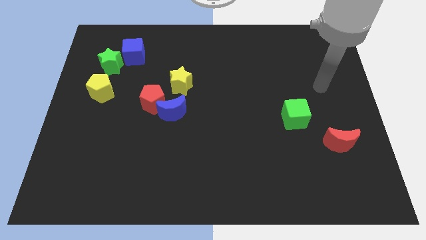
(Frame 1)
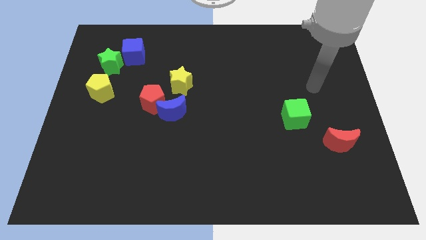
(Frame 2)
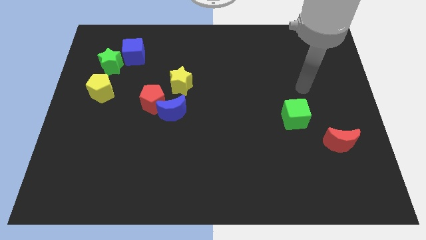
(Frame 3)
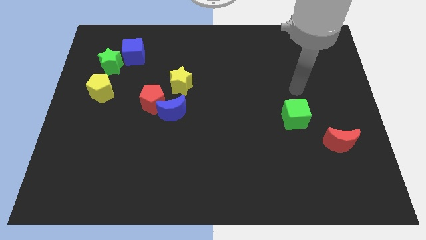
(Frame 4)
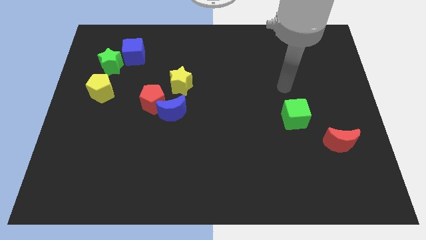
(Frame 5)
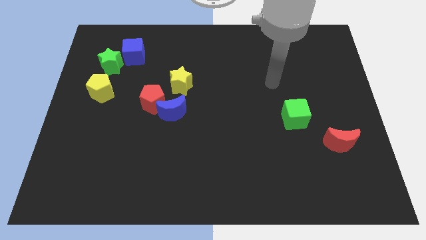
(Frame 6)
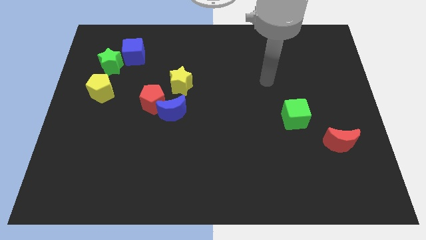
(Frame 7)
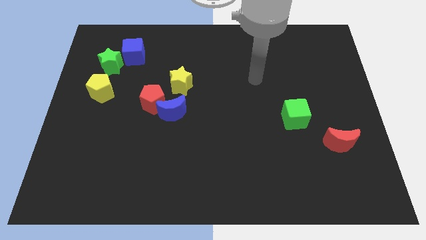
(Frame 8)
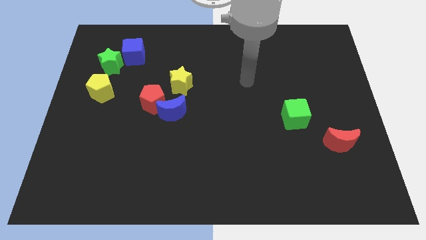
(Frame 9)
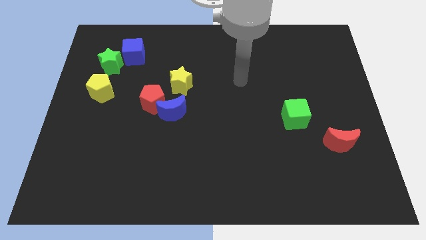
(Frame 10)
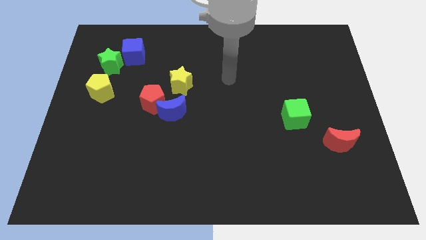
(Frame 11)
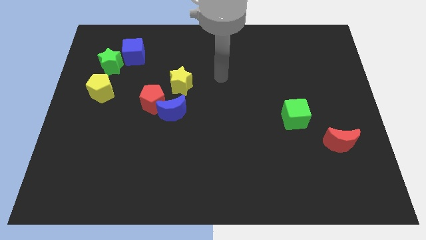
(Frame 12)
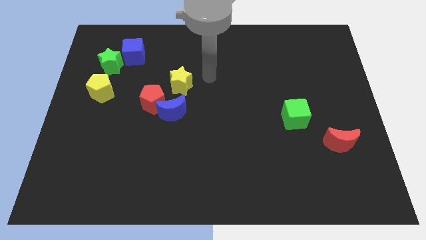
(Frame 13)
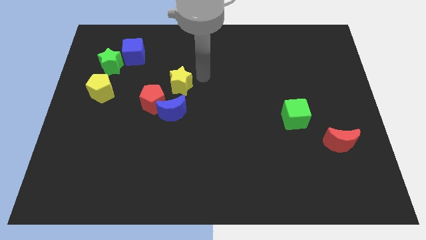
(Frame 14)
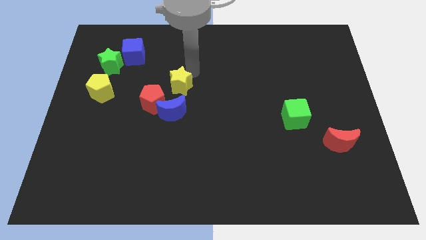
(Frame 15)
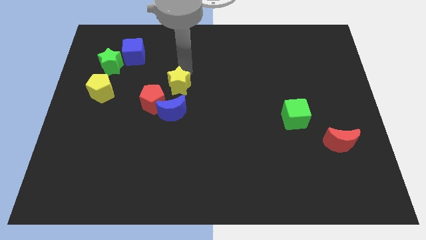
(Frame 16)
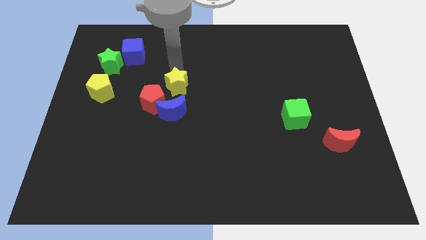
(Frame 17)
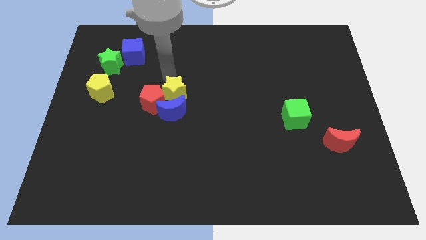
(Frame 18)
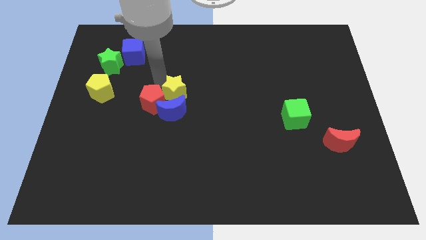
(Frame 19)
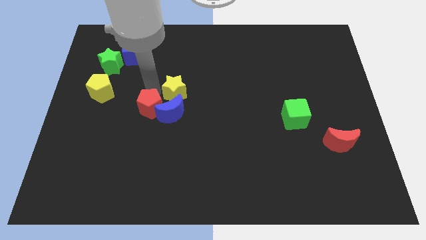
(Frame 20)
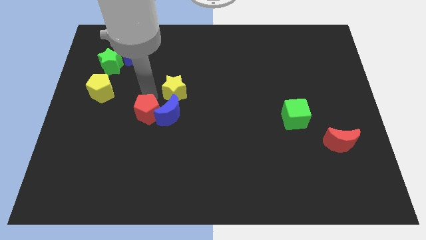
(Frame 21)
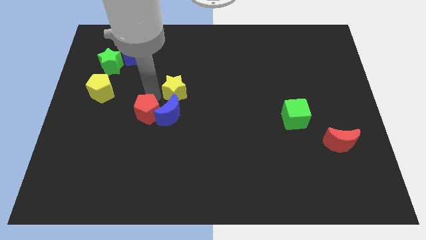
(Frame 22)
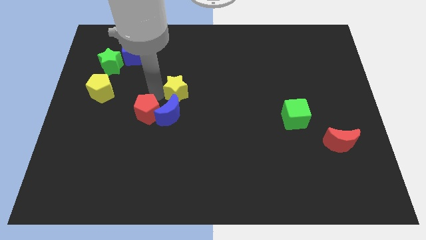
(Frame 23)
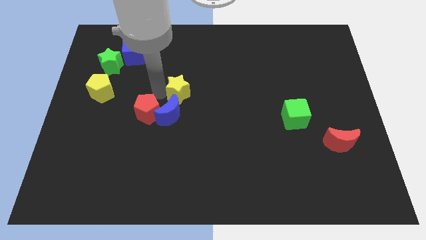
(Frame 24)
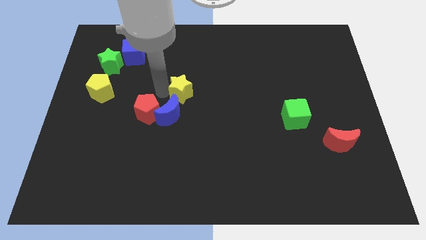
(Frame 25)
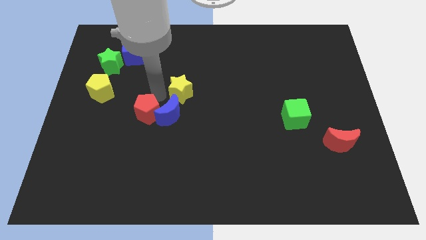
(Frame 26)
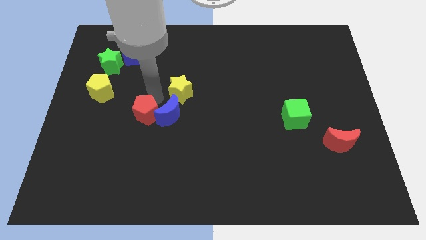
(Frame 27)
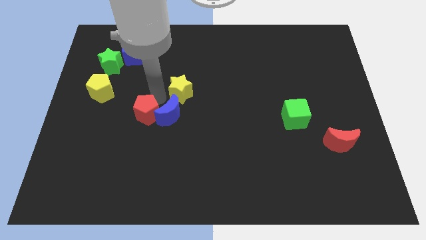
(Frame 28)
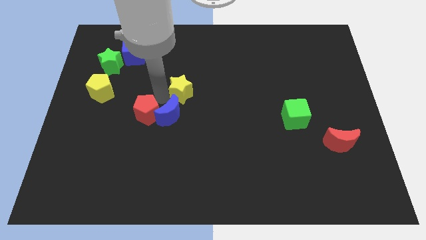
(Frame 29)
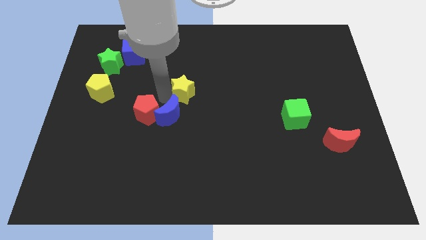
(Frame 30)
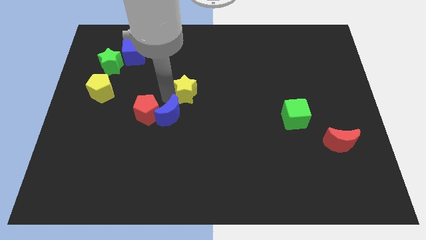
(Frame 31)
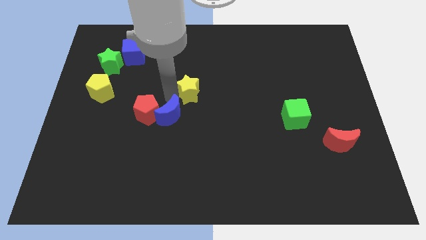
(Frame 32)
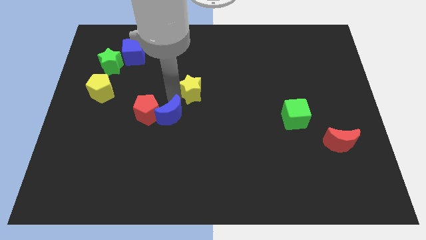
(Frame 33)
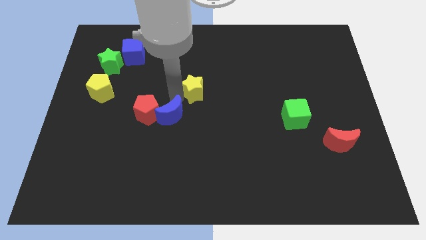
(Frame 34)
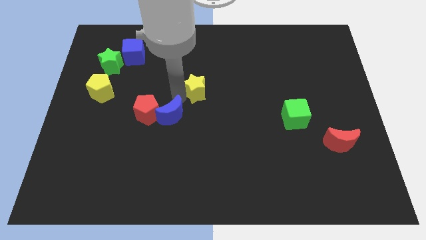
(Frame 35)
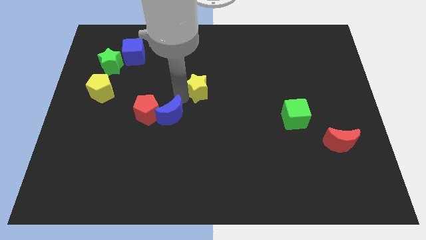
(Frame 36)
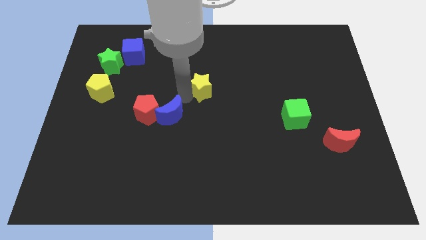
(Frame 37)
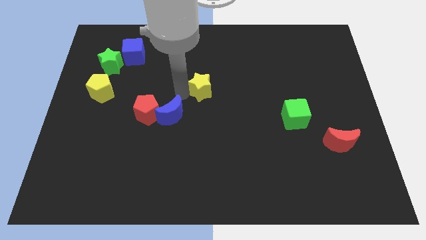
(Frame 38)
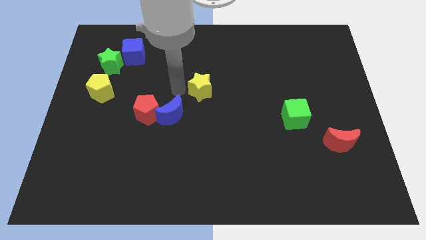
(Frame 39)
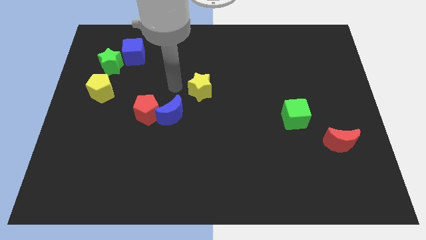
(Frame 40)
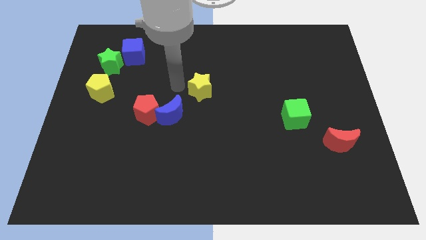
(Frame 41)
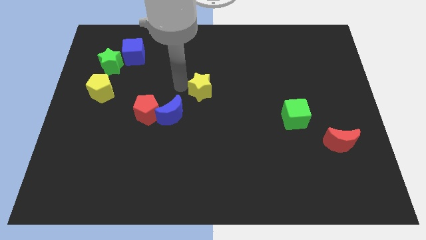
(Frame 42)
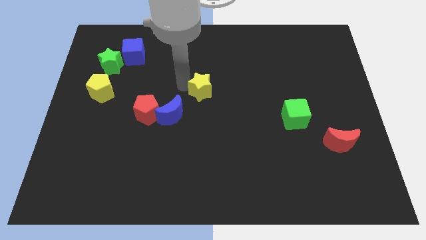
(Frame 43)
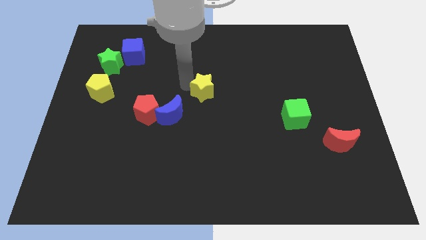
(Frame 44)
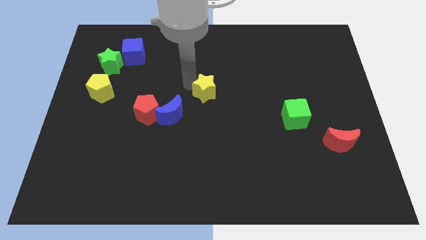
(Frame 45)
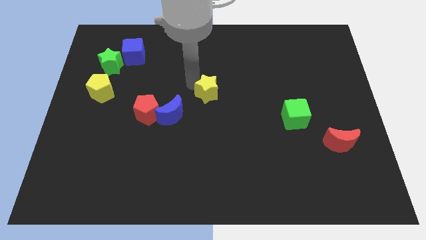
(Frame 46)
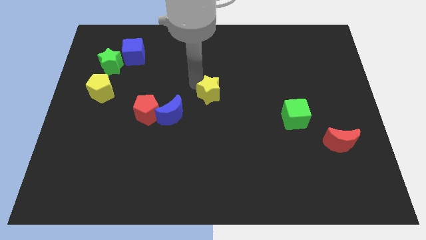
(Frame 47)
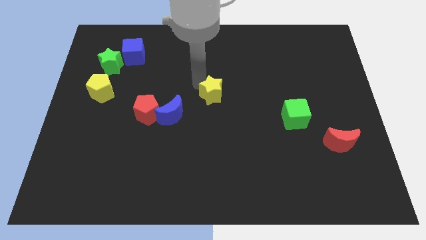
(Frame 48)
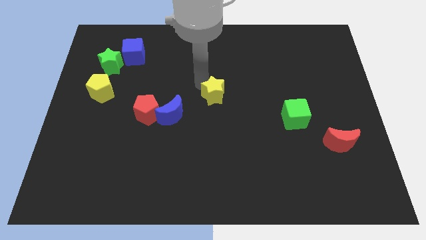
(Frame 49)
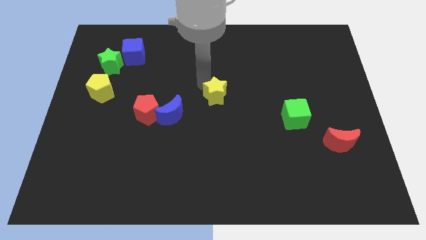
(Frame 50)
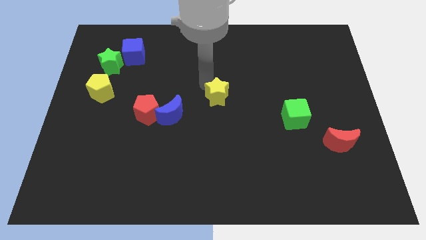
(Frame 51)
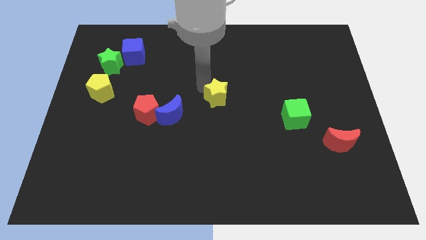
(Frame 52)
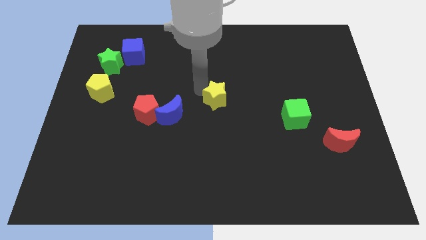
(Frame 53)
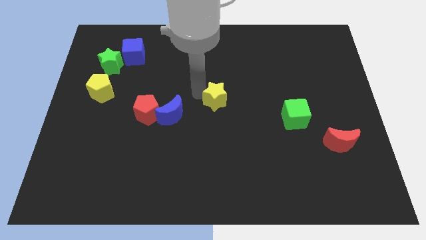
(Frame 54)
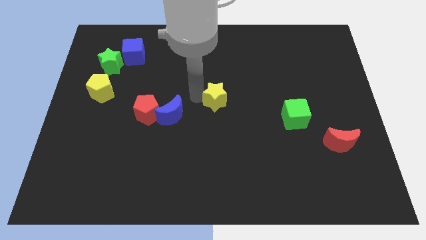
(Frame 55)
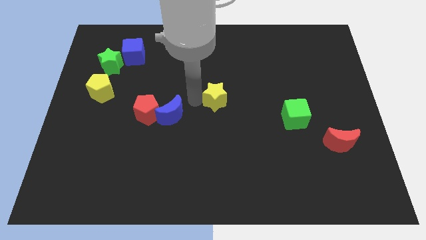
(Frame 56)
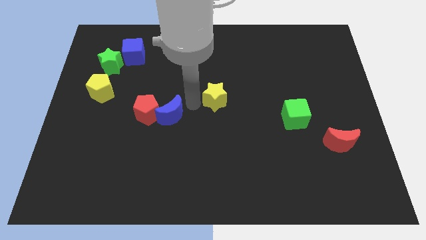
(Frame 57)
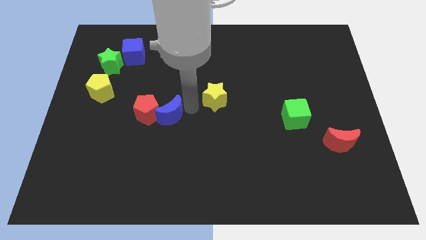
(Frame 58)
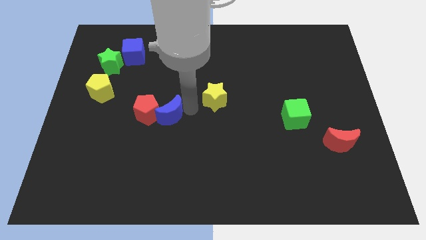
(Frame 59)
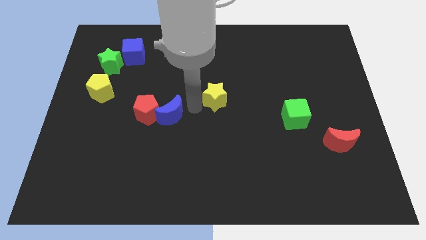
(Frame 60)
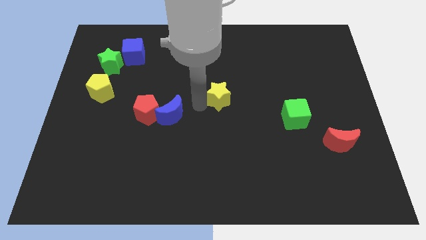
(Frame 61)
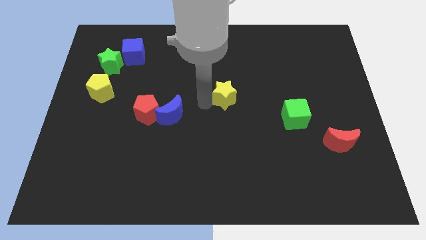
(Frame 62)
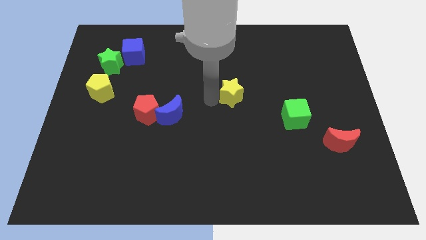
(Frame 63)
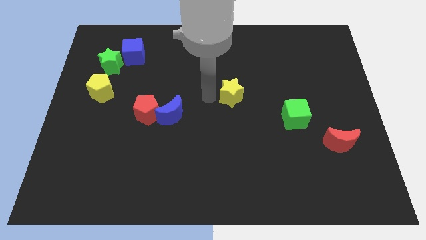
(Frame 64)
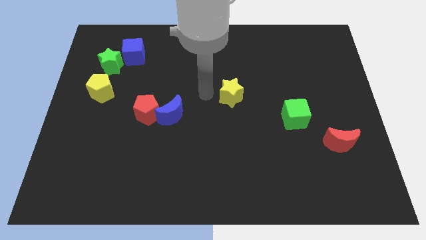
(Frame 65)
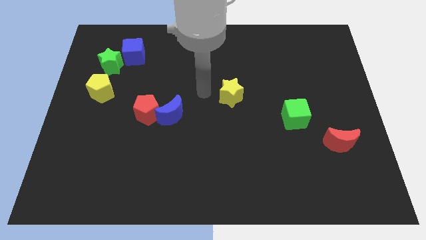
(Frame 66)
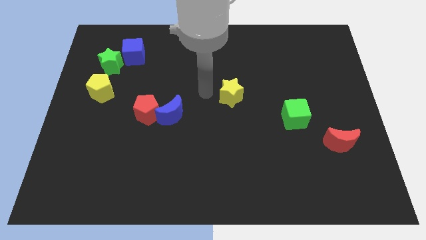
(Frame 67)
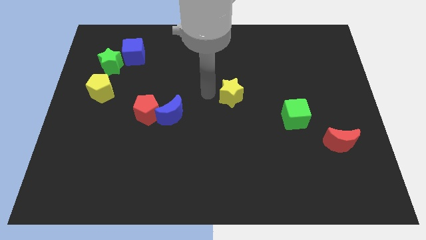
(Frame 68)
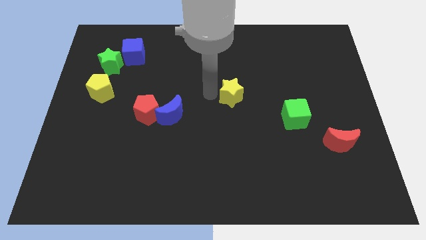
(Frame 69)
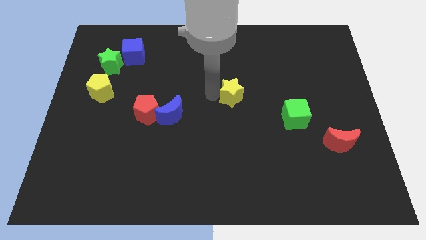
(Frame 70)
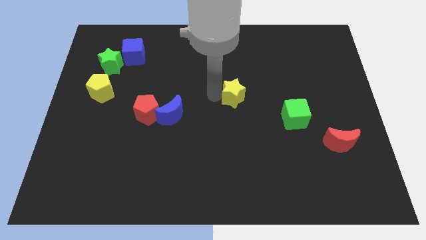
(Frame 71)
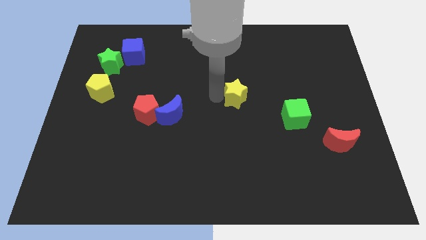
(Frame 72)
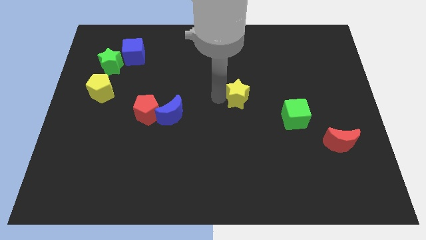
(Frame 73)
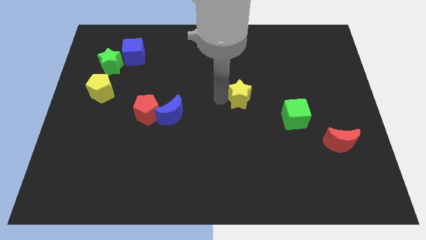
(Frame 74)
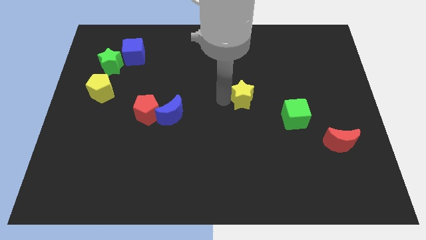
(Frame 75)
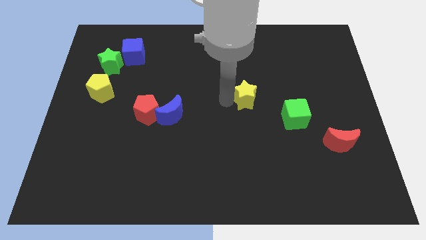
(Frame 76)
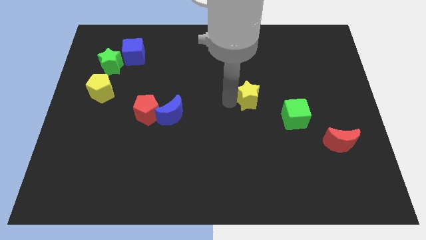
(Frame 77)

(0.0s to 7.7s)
slide the yellow star to the top left side of the green cube
